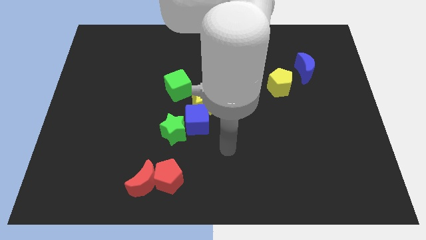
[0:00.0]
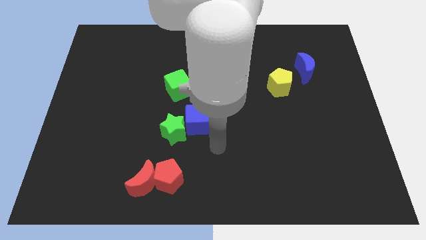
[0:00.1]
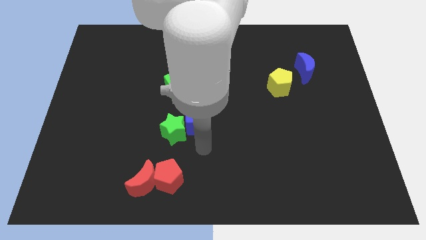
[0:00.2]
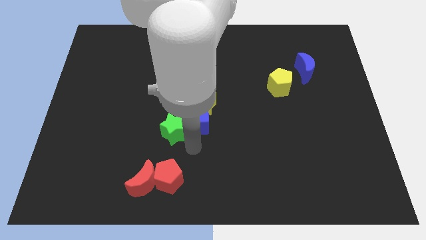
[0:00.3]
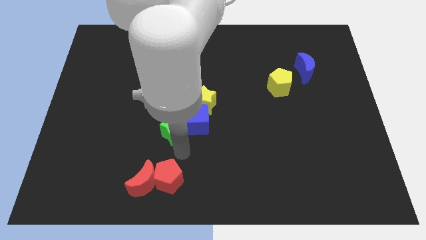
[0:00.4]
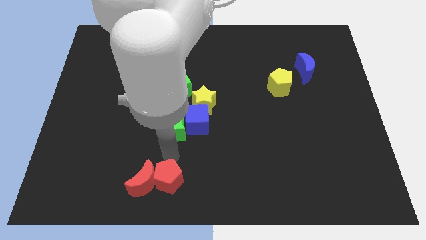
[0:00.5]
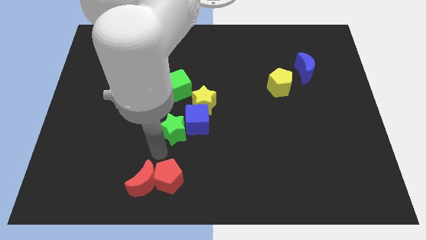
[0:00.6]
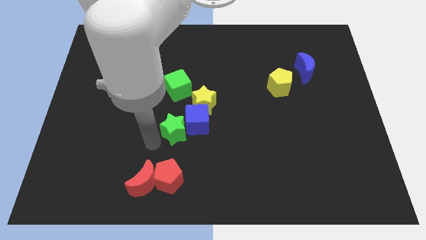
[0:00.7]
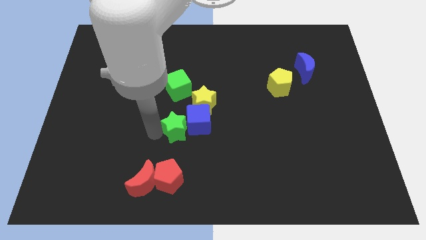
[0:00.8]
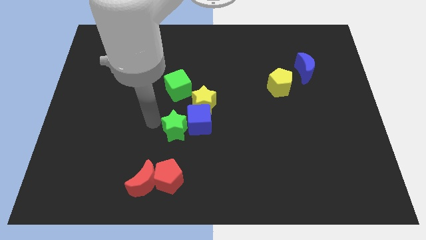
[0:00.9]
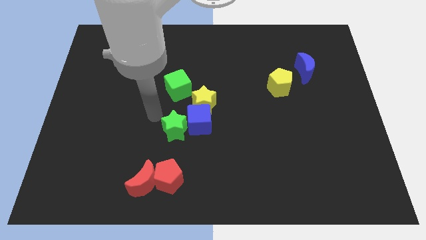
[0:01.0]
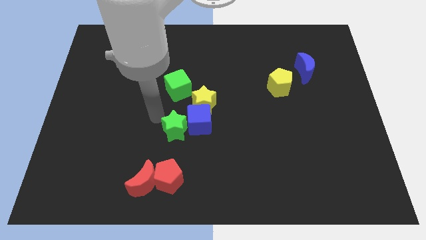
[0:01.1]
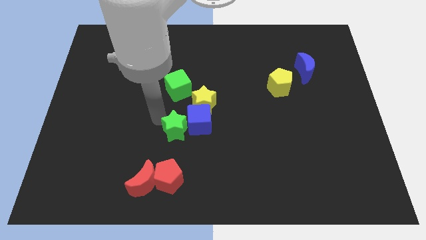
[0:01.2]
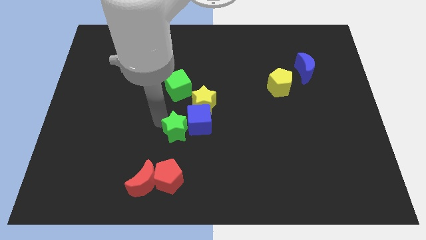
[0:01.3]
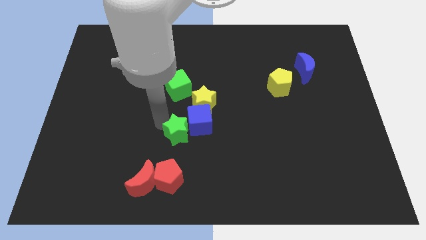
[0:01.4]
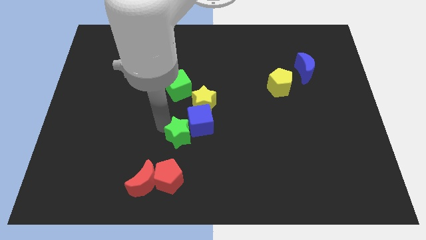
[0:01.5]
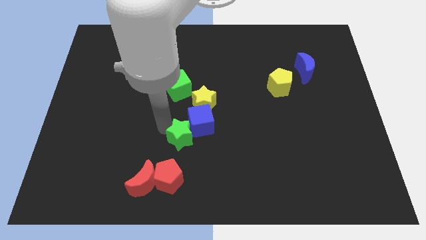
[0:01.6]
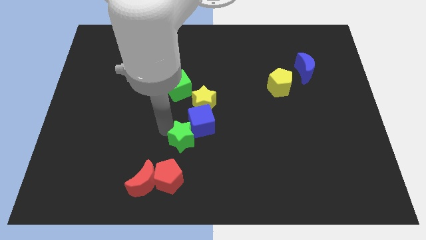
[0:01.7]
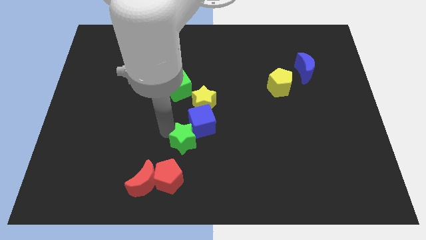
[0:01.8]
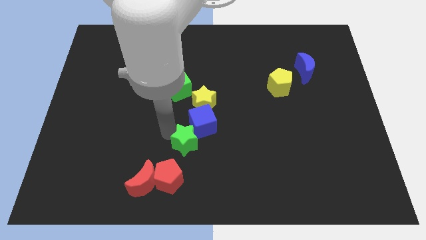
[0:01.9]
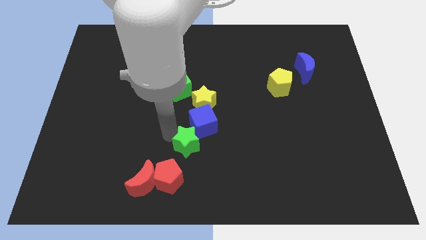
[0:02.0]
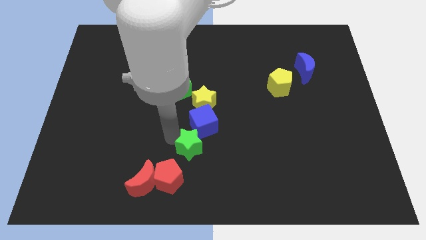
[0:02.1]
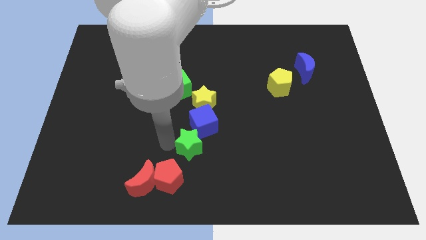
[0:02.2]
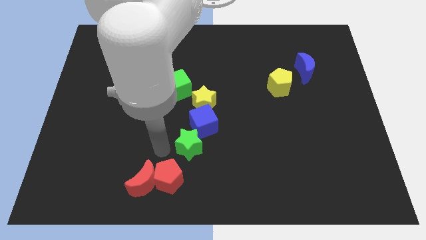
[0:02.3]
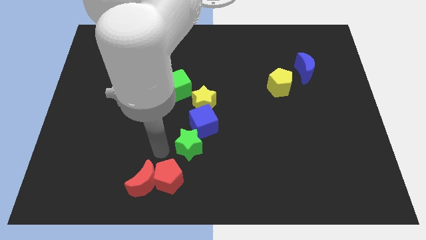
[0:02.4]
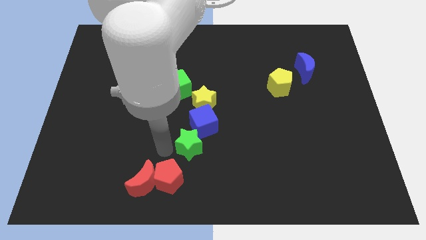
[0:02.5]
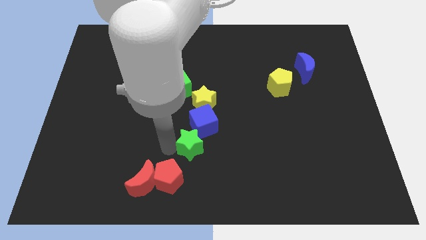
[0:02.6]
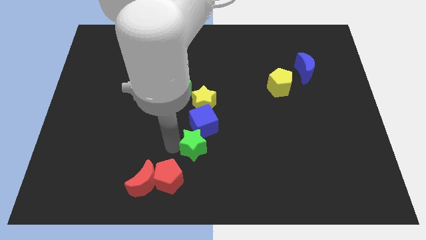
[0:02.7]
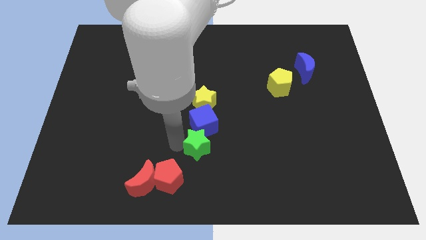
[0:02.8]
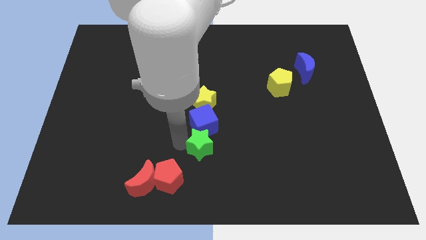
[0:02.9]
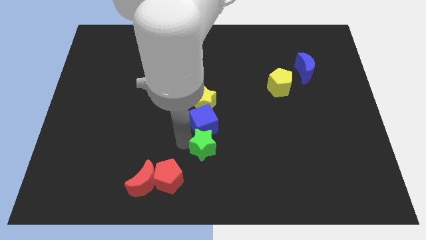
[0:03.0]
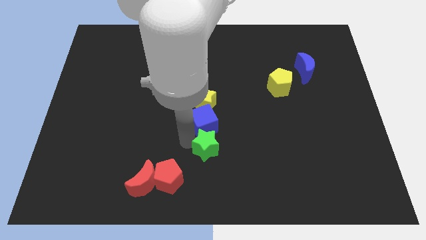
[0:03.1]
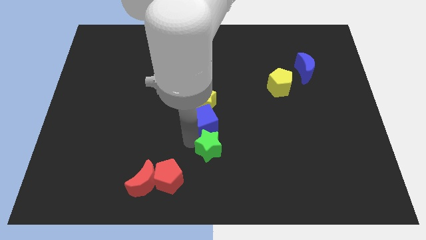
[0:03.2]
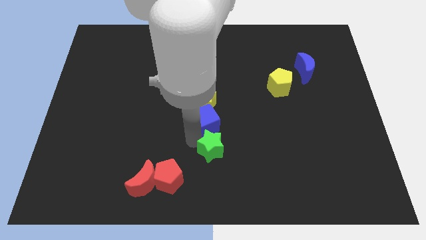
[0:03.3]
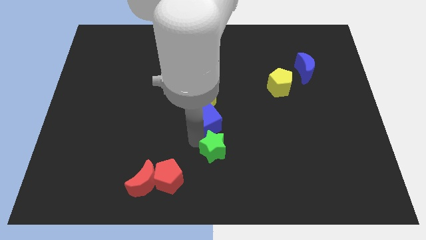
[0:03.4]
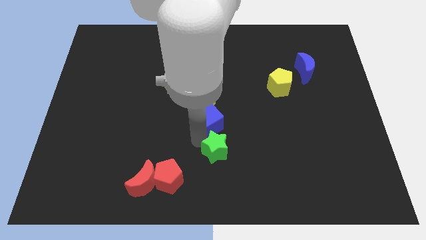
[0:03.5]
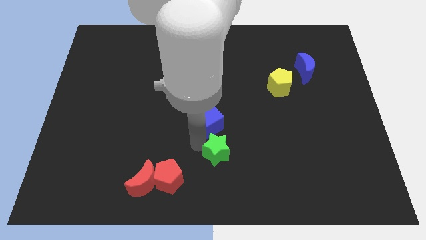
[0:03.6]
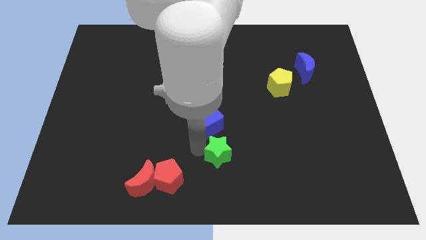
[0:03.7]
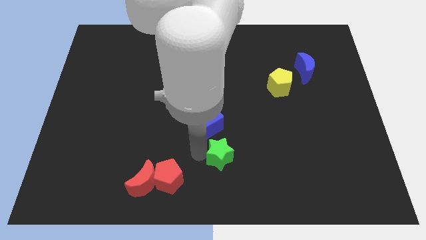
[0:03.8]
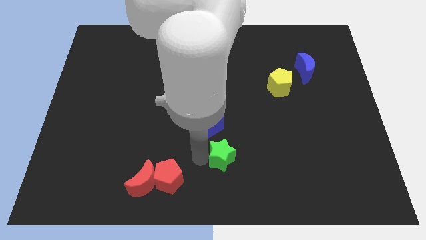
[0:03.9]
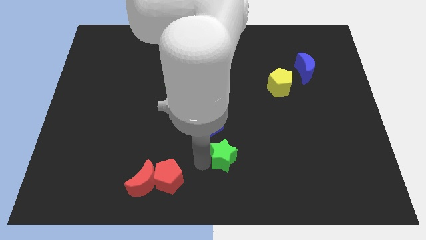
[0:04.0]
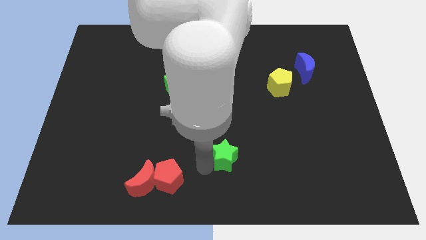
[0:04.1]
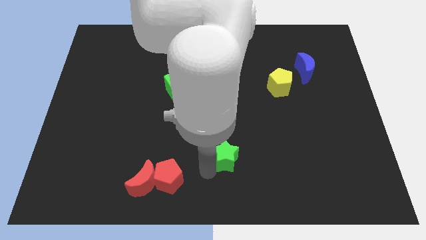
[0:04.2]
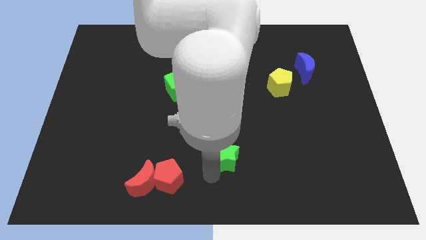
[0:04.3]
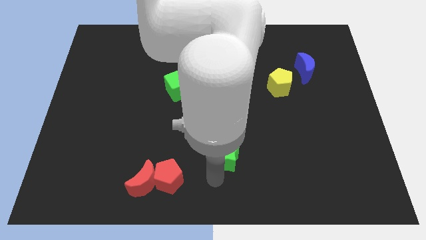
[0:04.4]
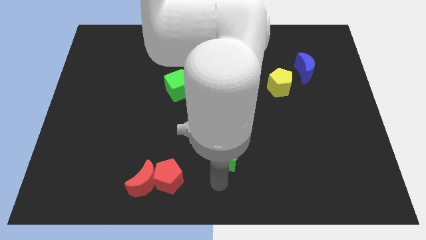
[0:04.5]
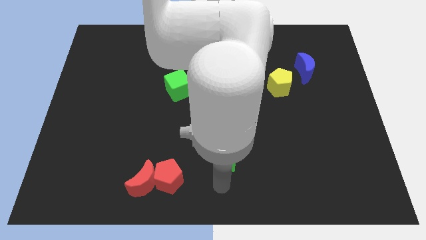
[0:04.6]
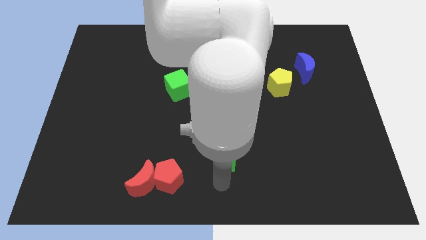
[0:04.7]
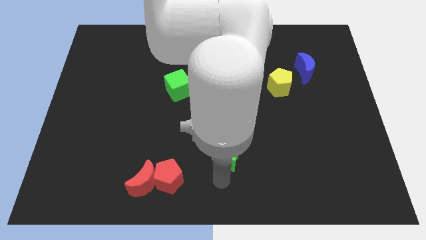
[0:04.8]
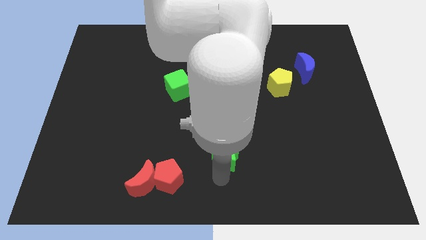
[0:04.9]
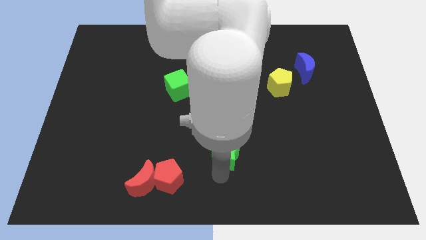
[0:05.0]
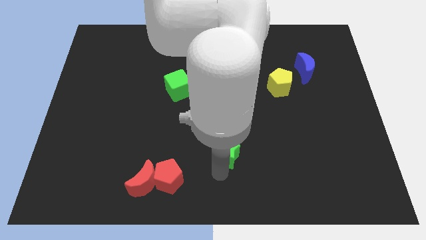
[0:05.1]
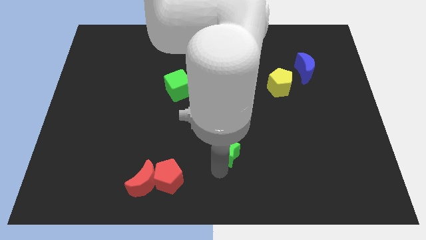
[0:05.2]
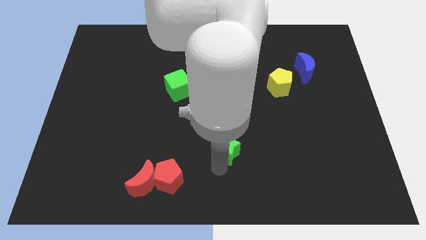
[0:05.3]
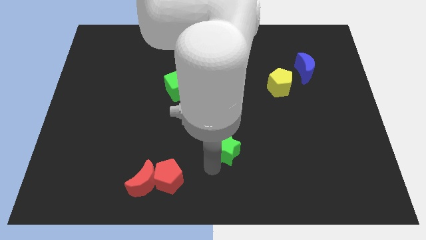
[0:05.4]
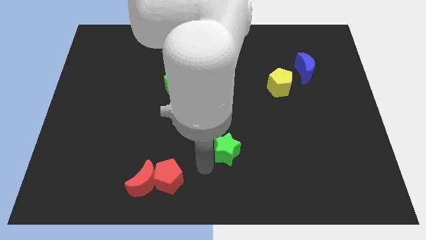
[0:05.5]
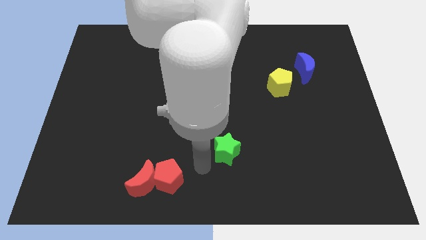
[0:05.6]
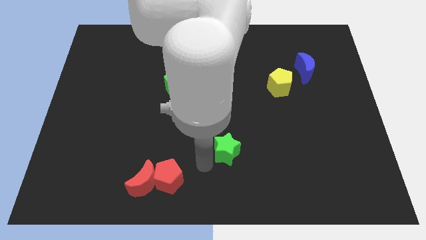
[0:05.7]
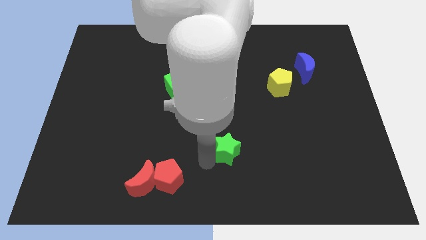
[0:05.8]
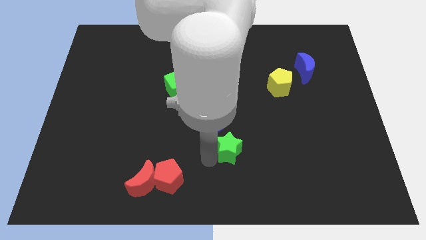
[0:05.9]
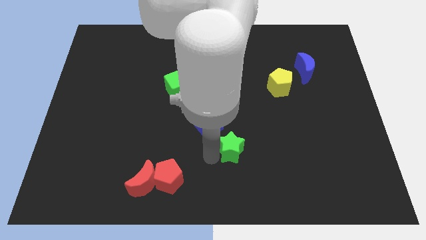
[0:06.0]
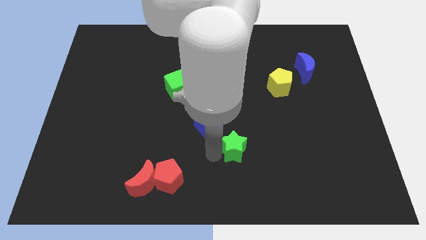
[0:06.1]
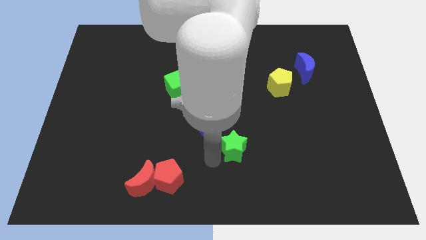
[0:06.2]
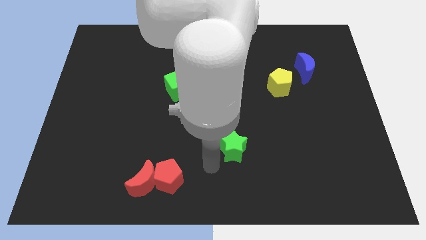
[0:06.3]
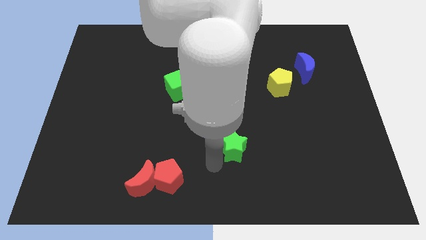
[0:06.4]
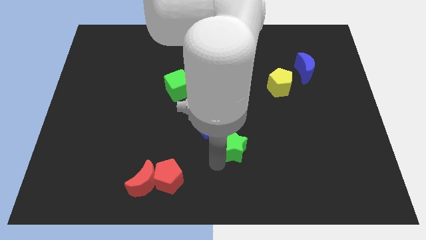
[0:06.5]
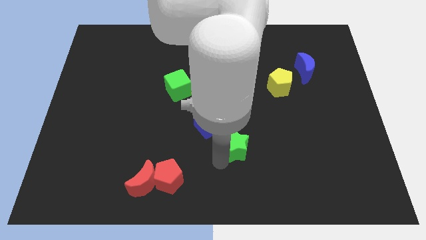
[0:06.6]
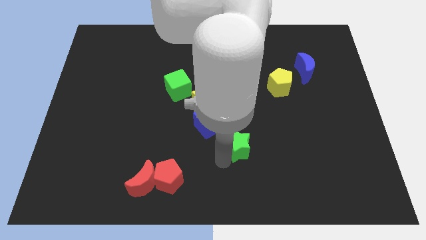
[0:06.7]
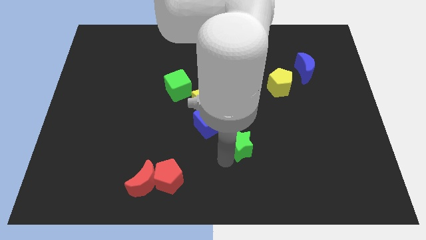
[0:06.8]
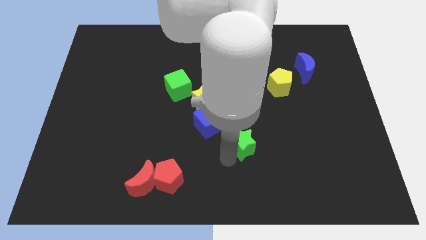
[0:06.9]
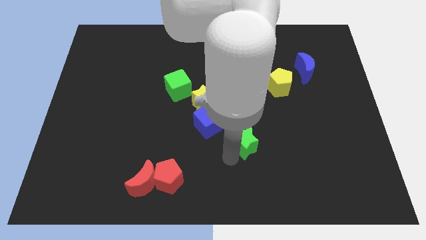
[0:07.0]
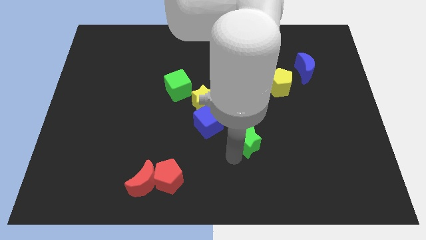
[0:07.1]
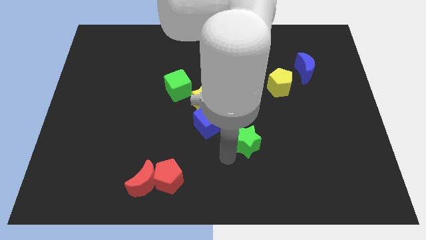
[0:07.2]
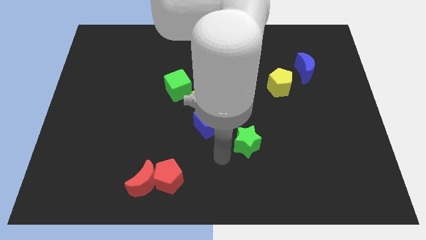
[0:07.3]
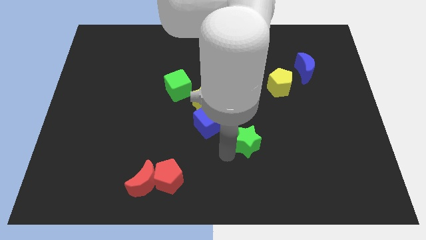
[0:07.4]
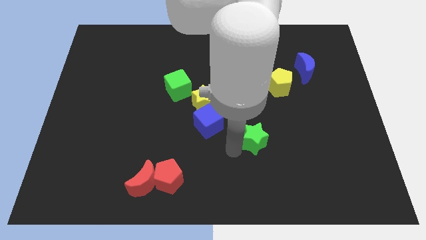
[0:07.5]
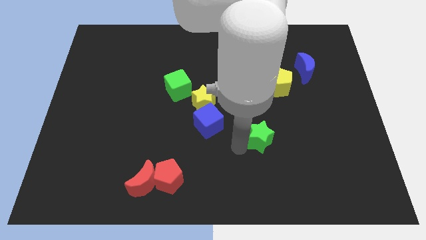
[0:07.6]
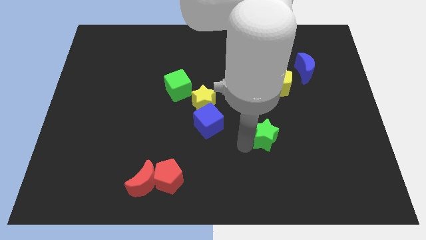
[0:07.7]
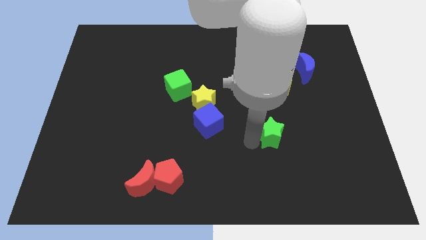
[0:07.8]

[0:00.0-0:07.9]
move the green star to the right

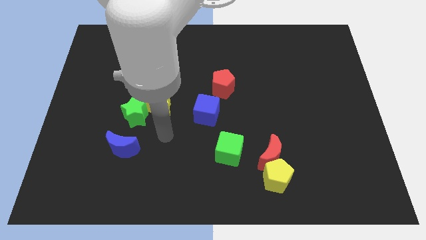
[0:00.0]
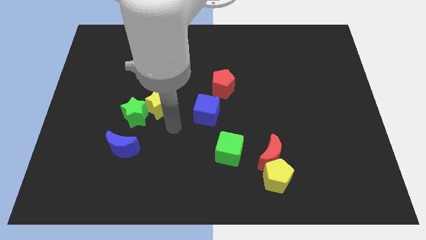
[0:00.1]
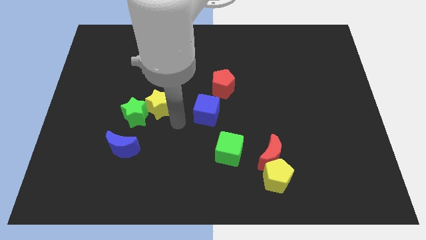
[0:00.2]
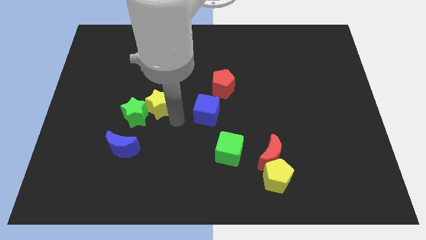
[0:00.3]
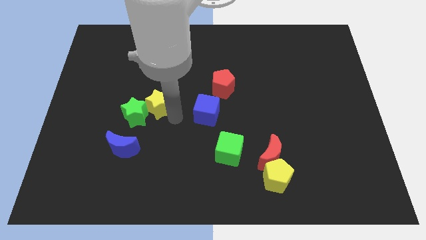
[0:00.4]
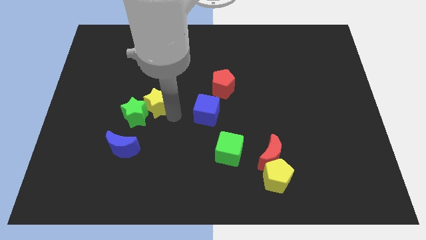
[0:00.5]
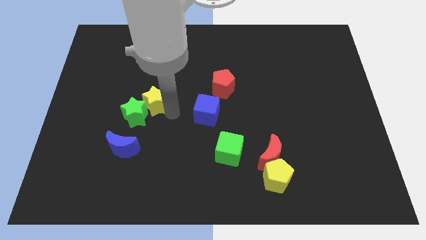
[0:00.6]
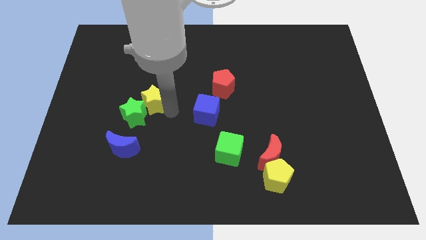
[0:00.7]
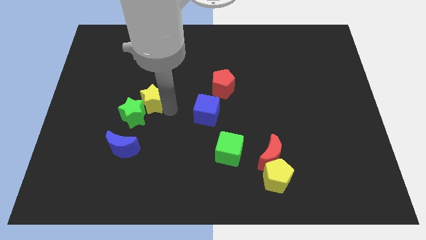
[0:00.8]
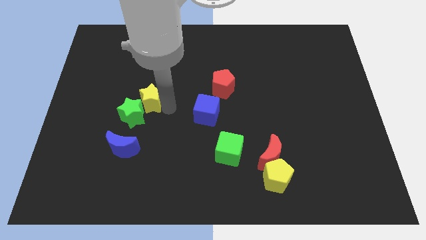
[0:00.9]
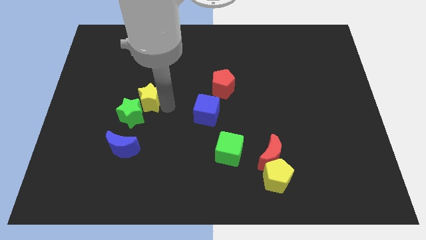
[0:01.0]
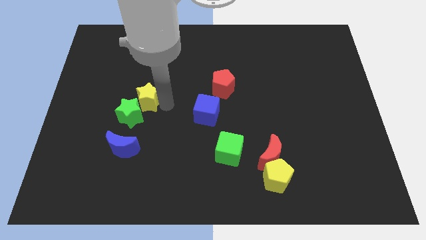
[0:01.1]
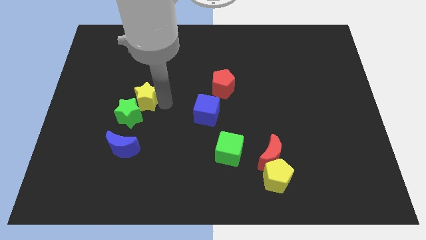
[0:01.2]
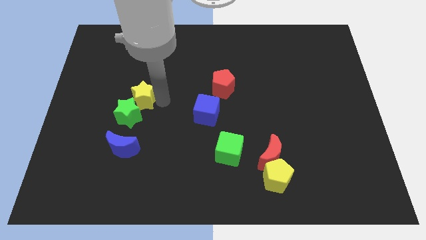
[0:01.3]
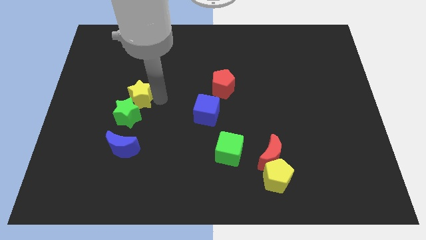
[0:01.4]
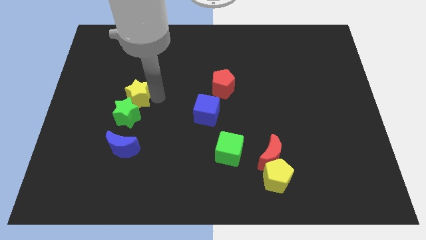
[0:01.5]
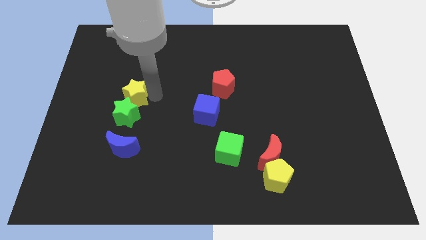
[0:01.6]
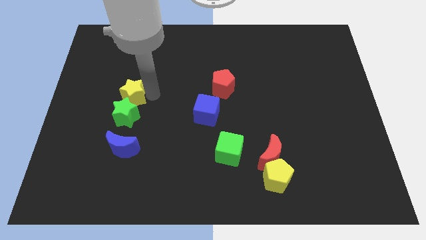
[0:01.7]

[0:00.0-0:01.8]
slide the yellow star upwards and left diagonally a little
